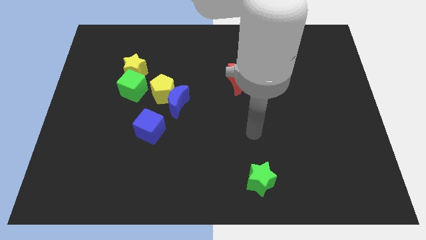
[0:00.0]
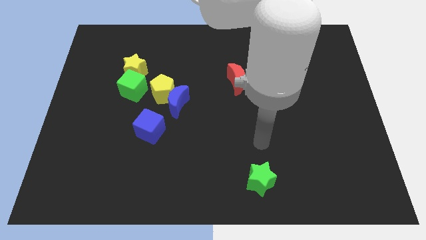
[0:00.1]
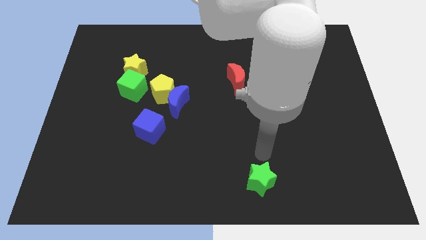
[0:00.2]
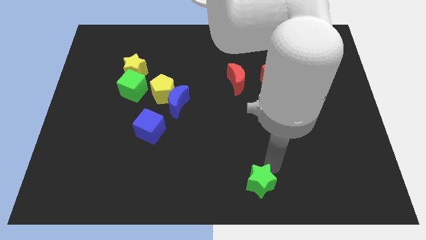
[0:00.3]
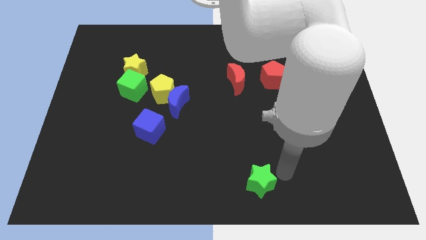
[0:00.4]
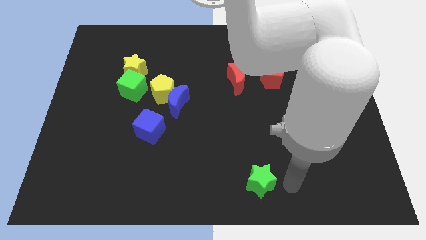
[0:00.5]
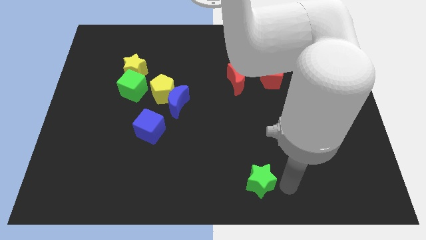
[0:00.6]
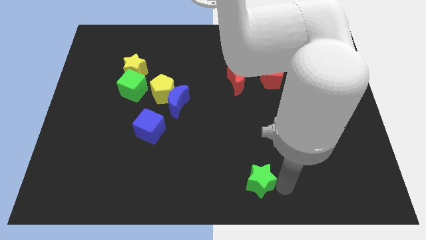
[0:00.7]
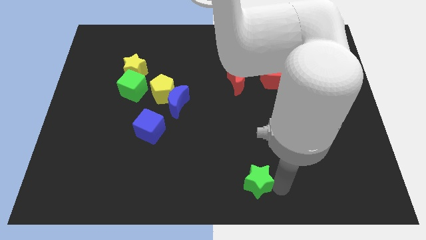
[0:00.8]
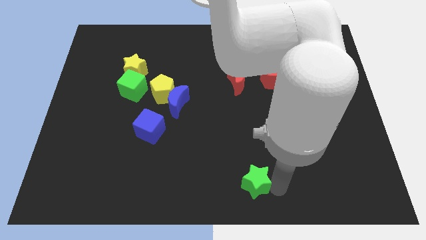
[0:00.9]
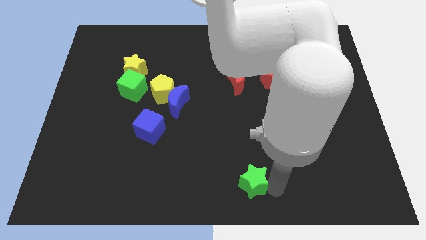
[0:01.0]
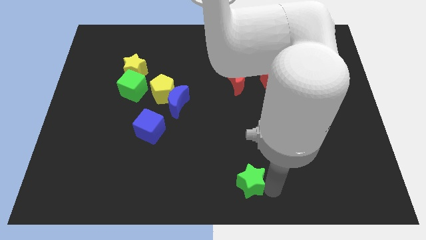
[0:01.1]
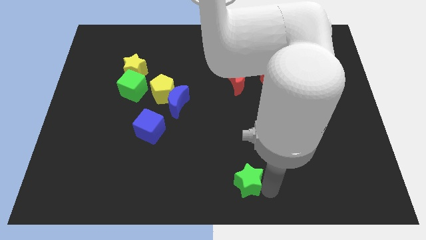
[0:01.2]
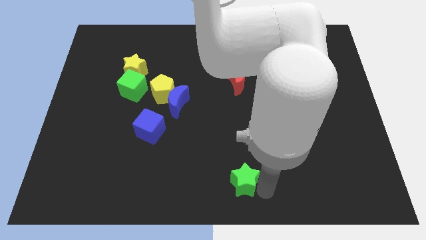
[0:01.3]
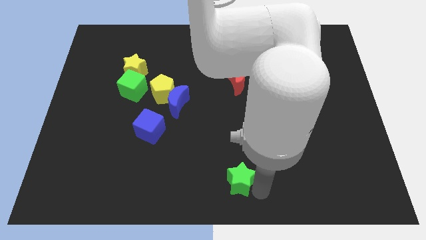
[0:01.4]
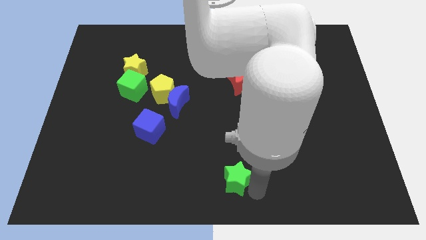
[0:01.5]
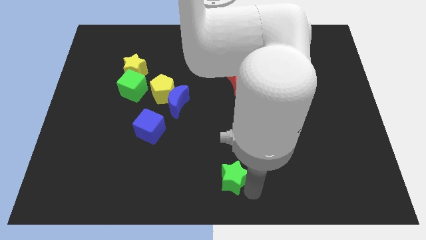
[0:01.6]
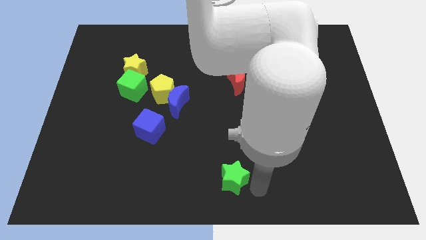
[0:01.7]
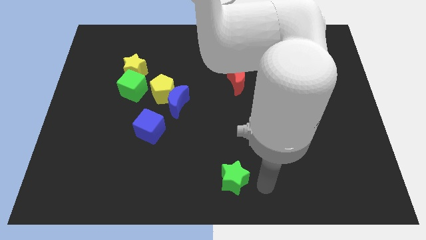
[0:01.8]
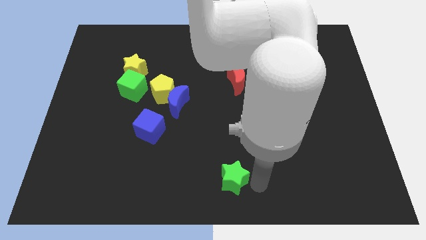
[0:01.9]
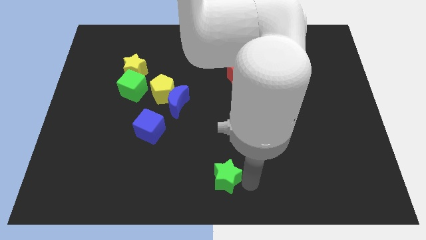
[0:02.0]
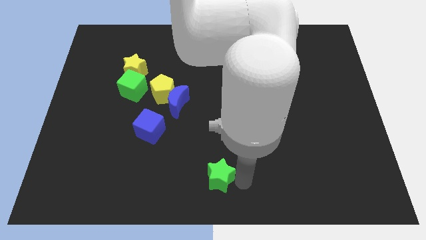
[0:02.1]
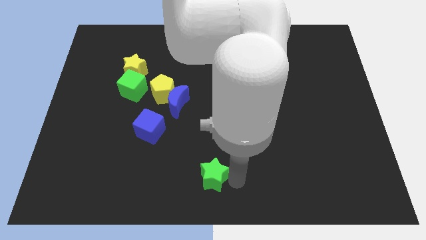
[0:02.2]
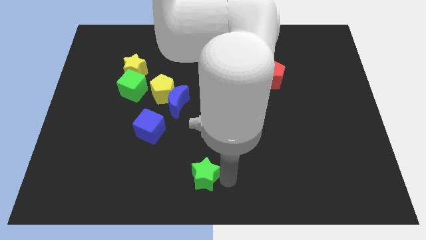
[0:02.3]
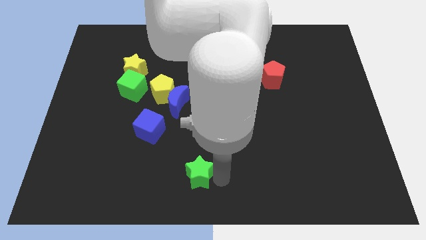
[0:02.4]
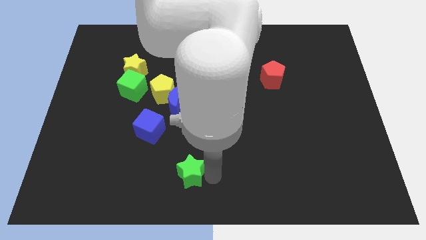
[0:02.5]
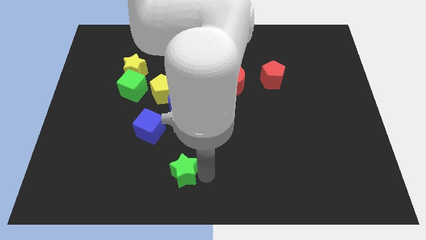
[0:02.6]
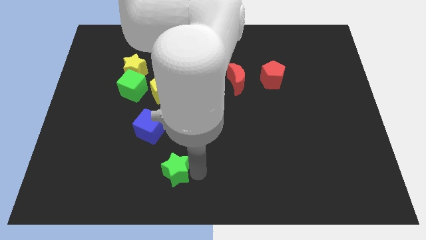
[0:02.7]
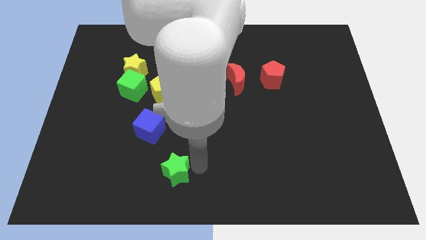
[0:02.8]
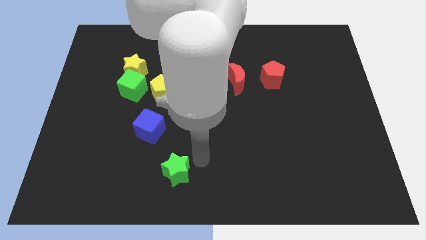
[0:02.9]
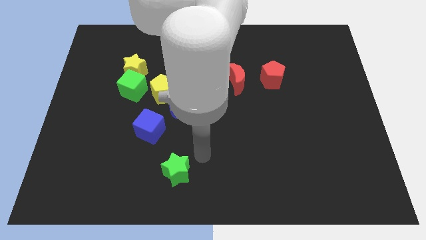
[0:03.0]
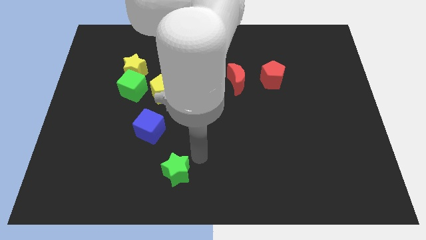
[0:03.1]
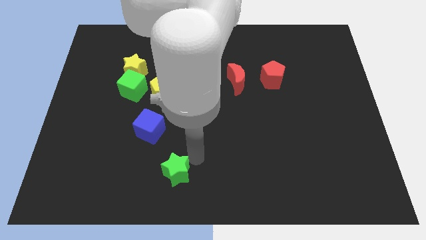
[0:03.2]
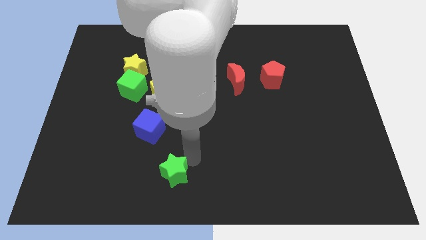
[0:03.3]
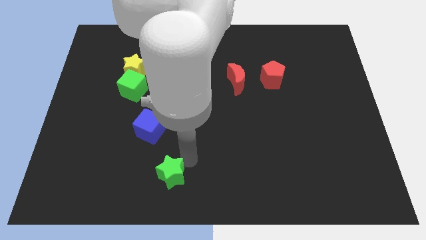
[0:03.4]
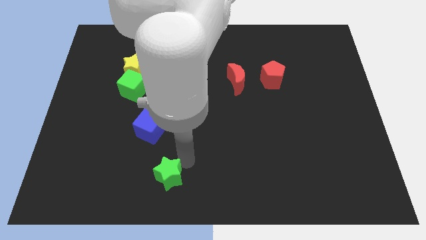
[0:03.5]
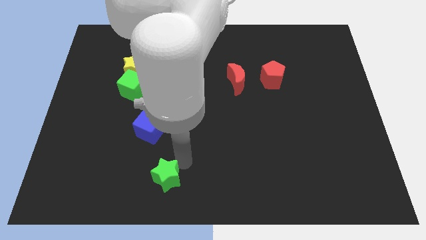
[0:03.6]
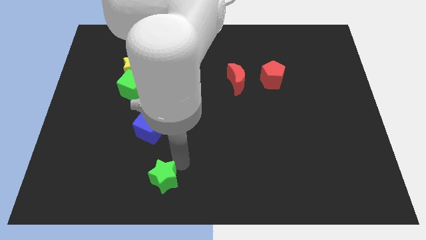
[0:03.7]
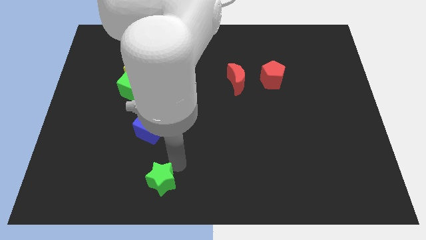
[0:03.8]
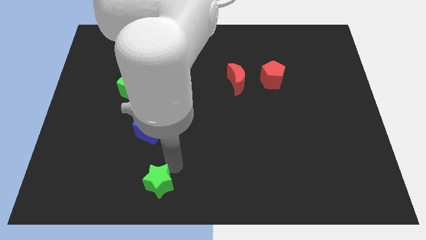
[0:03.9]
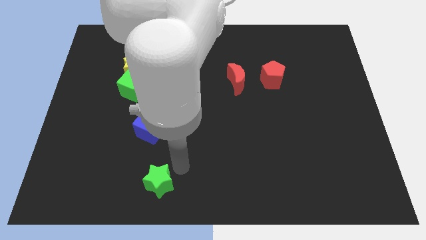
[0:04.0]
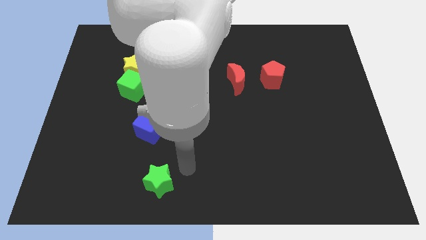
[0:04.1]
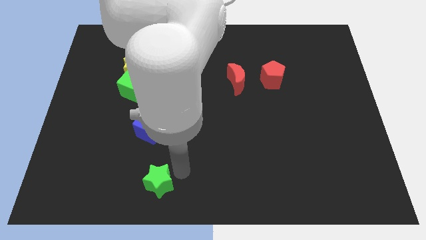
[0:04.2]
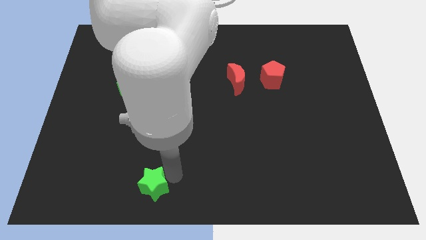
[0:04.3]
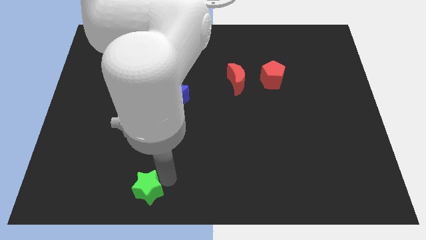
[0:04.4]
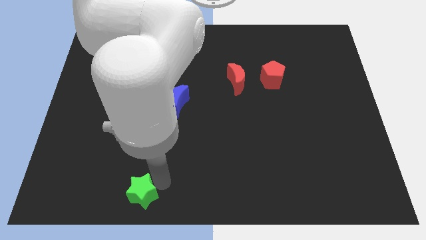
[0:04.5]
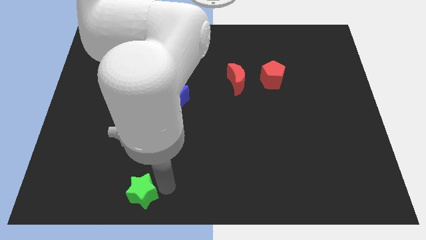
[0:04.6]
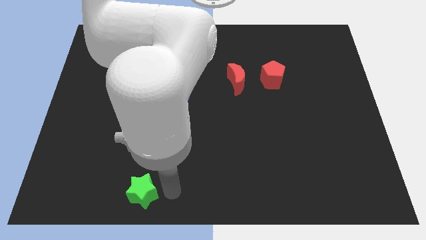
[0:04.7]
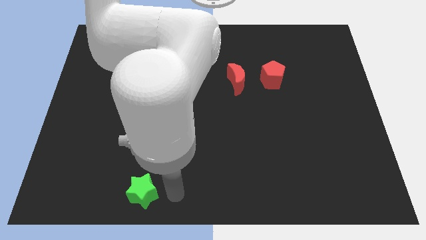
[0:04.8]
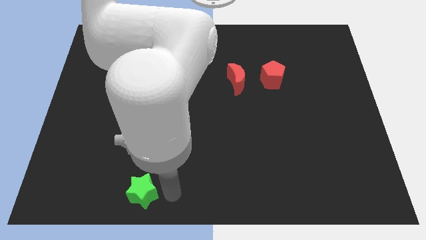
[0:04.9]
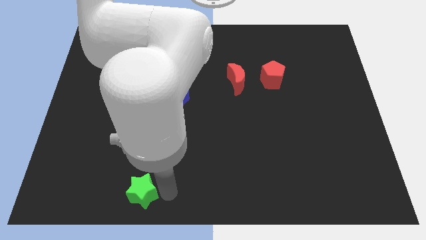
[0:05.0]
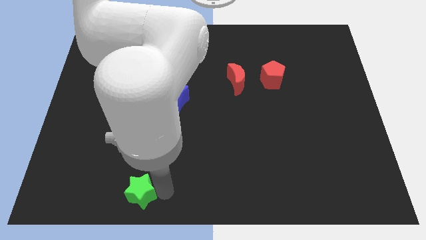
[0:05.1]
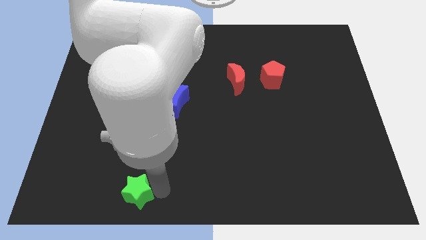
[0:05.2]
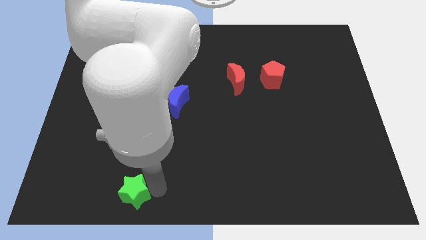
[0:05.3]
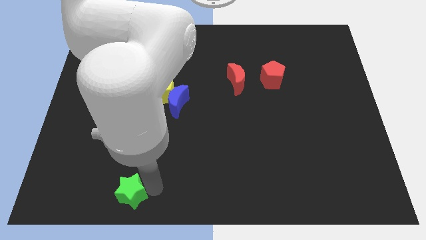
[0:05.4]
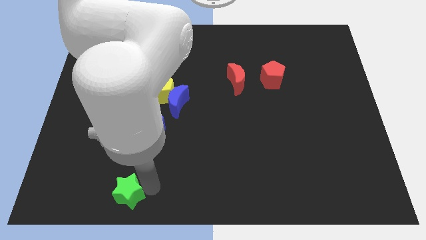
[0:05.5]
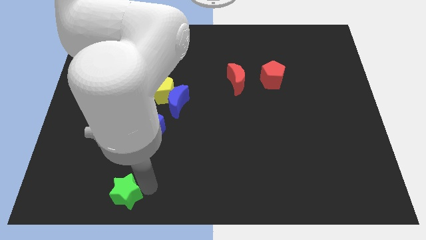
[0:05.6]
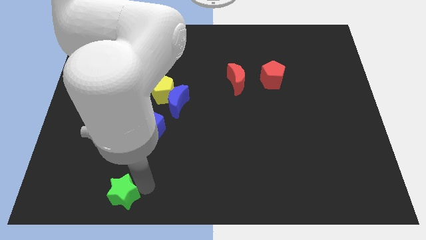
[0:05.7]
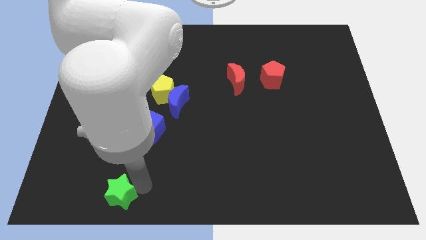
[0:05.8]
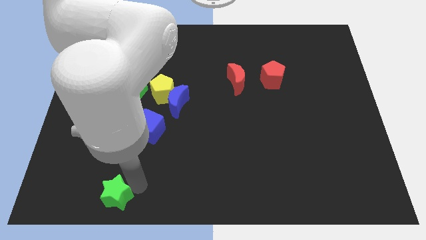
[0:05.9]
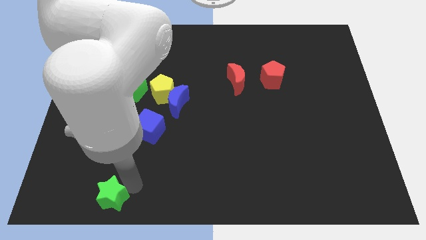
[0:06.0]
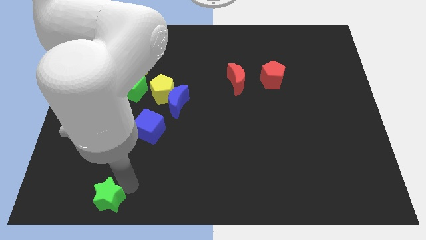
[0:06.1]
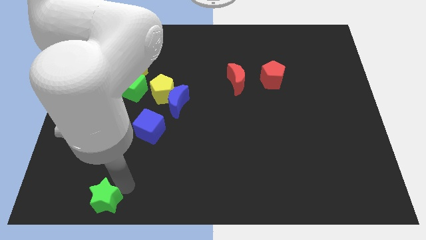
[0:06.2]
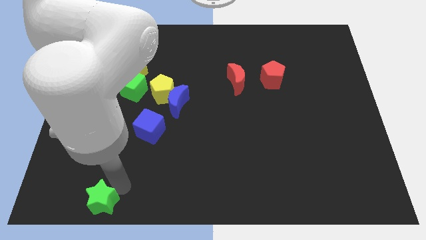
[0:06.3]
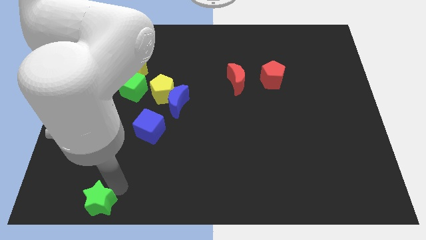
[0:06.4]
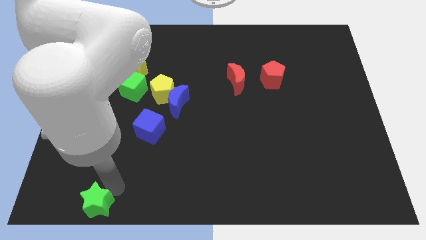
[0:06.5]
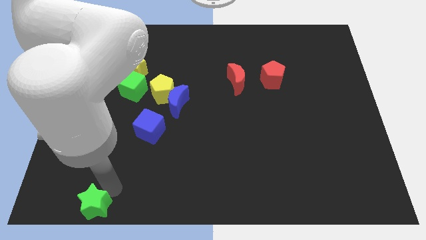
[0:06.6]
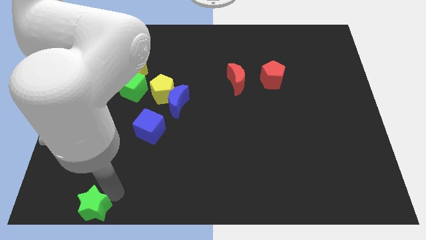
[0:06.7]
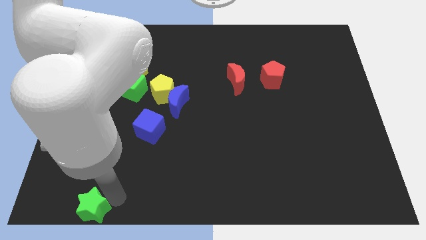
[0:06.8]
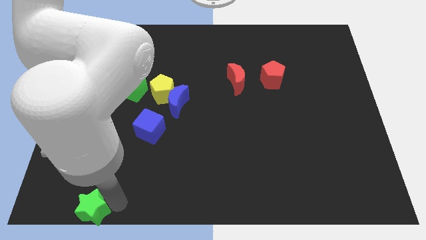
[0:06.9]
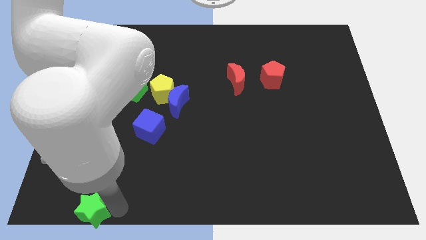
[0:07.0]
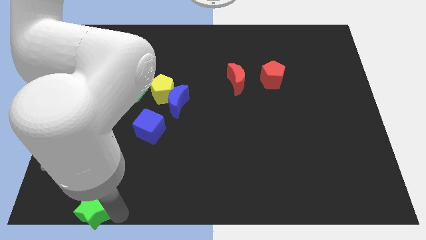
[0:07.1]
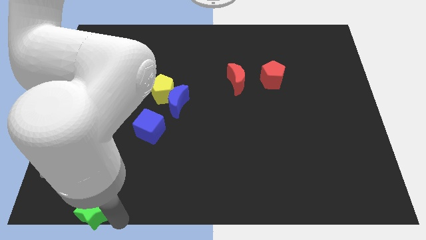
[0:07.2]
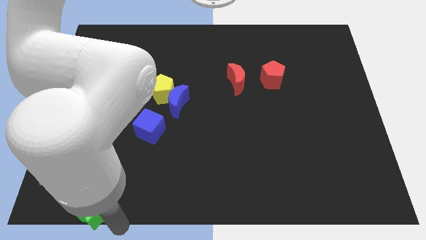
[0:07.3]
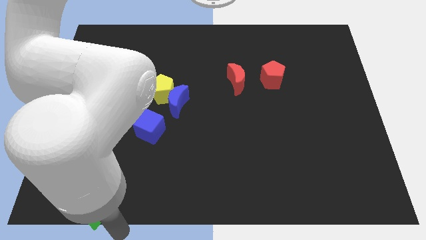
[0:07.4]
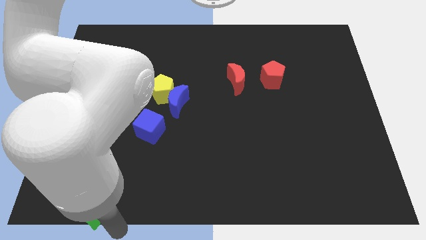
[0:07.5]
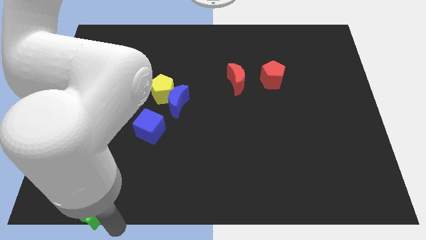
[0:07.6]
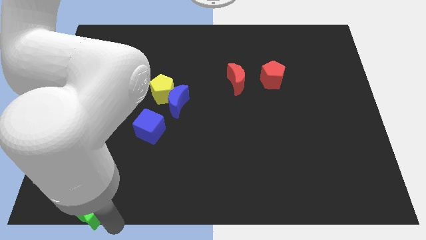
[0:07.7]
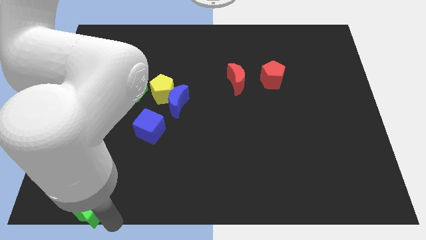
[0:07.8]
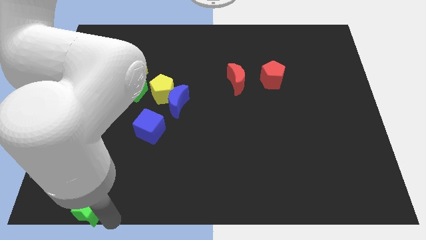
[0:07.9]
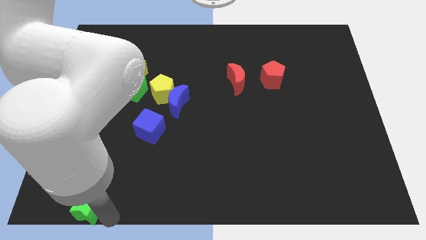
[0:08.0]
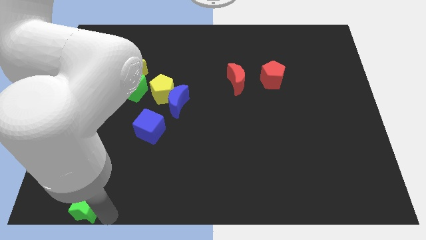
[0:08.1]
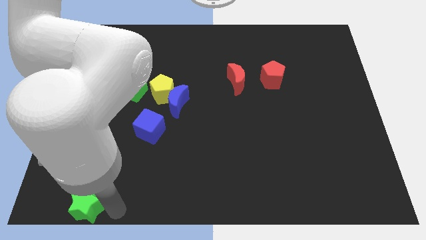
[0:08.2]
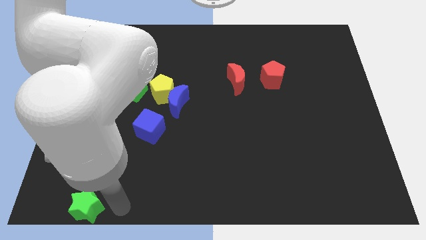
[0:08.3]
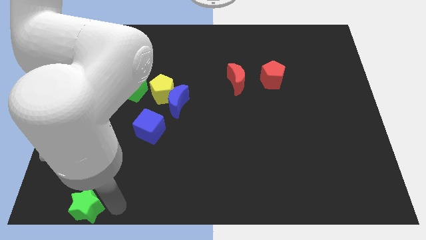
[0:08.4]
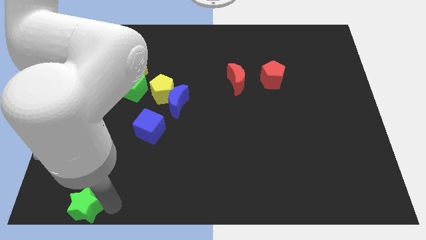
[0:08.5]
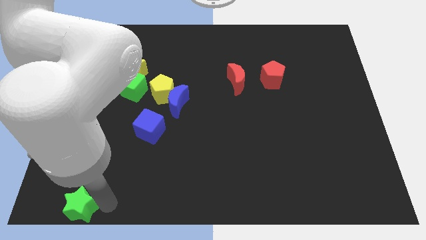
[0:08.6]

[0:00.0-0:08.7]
slide the green star to the bottom left
